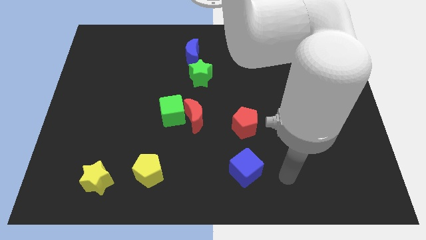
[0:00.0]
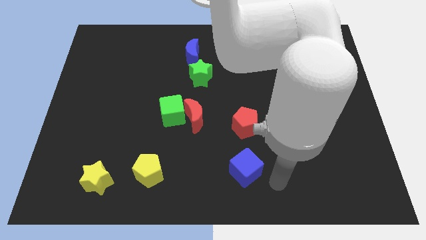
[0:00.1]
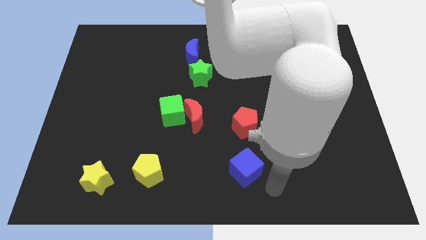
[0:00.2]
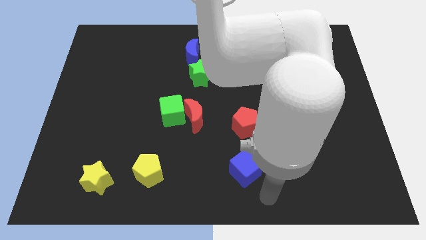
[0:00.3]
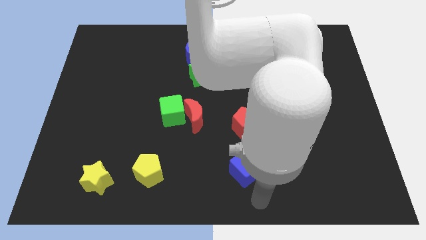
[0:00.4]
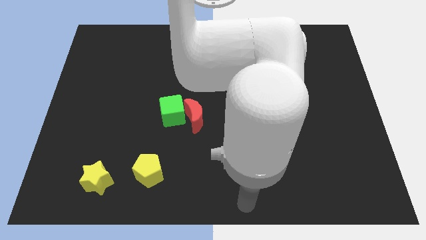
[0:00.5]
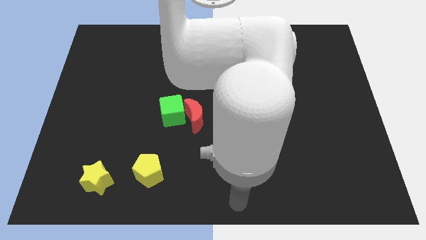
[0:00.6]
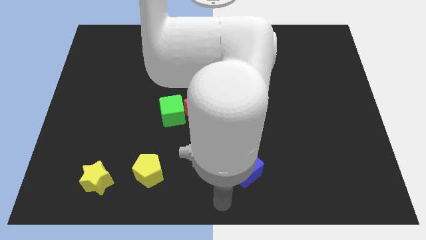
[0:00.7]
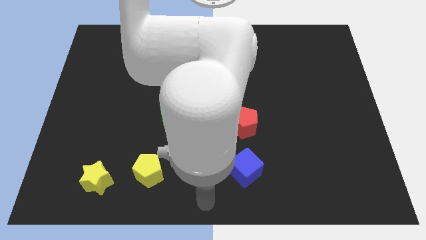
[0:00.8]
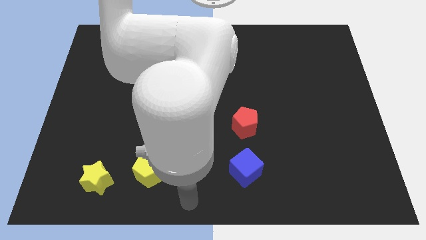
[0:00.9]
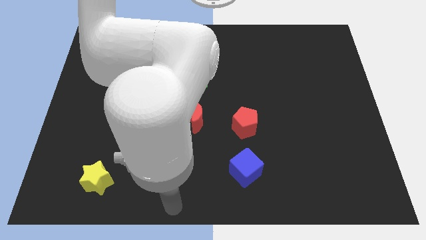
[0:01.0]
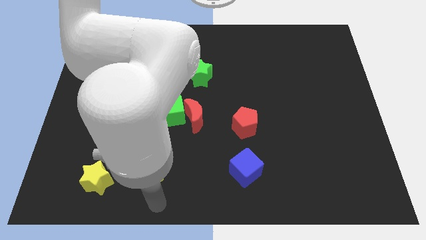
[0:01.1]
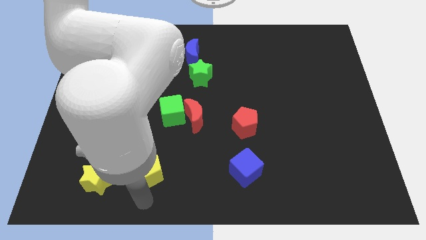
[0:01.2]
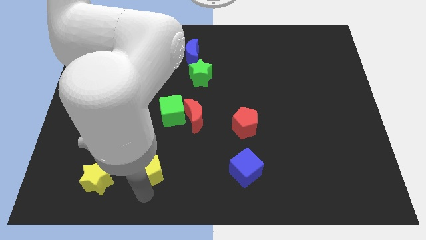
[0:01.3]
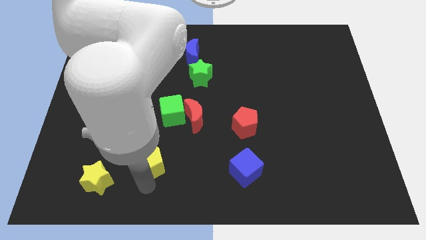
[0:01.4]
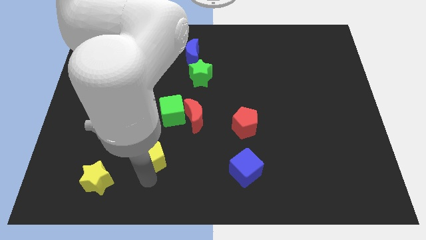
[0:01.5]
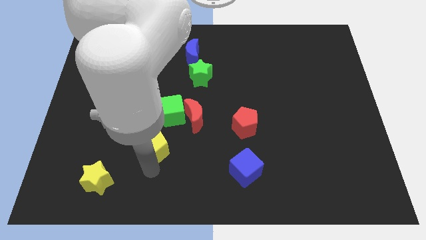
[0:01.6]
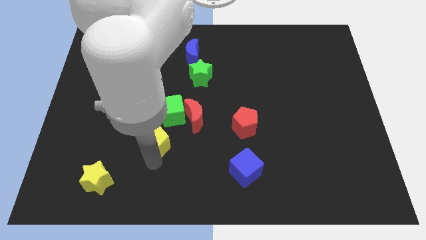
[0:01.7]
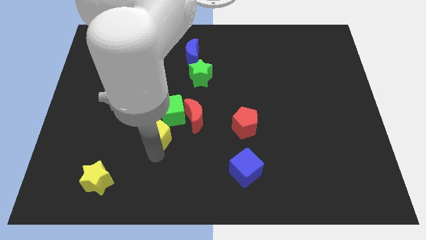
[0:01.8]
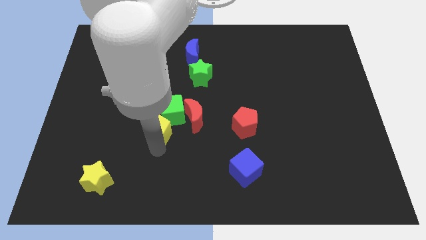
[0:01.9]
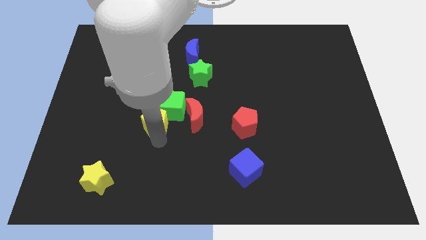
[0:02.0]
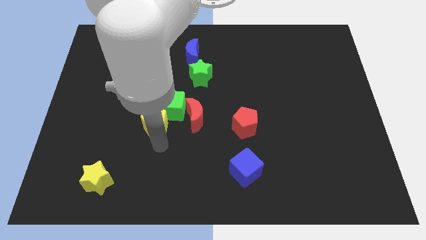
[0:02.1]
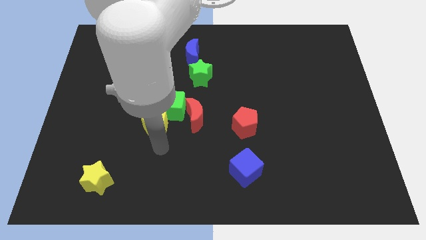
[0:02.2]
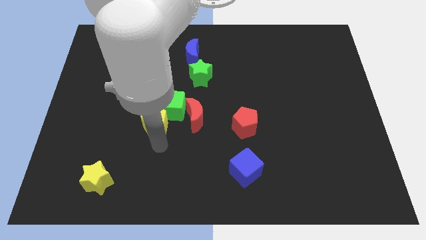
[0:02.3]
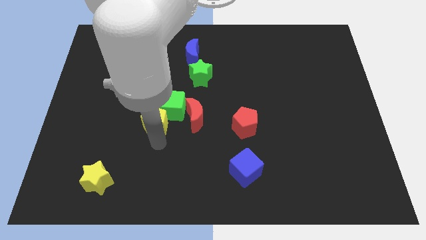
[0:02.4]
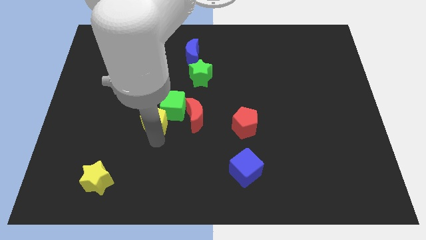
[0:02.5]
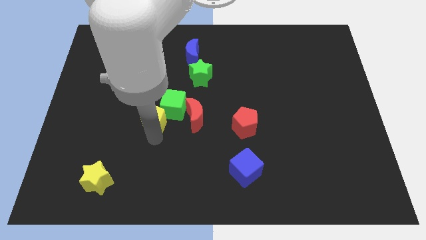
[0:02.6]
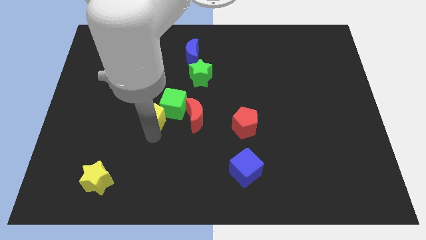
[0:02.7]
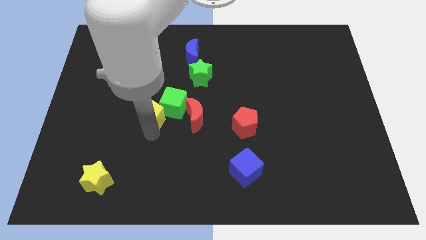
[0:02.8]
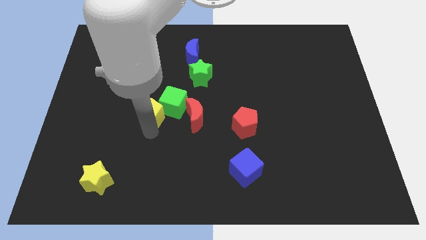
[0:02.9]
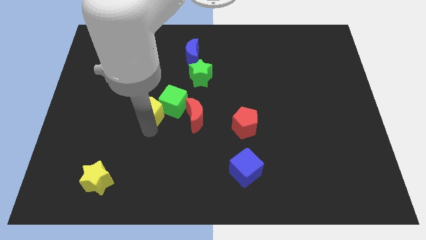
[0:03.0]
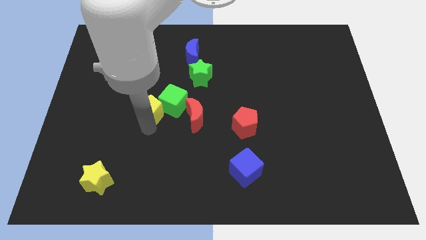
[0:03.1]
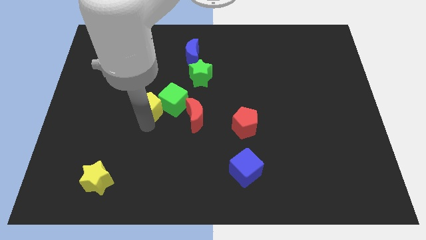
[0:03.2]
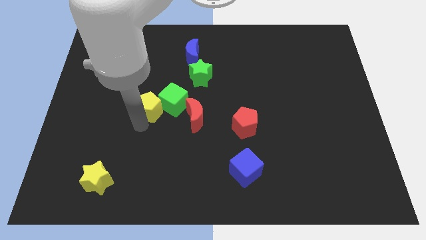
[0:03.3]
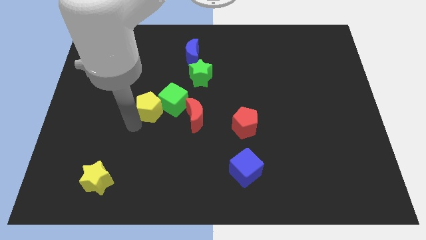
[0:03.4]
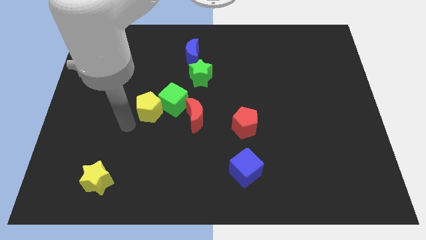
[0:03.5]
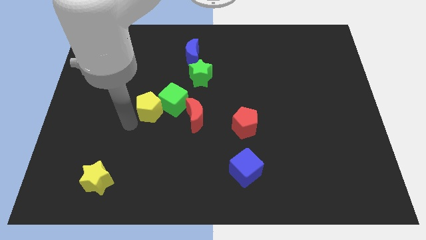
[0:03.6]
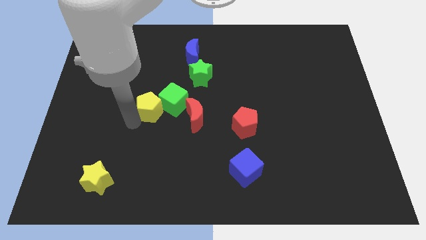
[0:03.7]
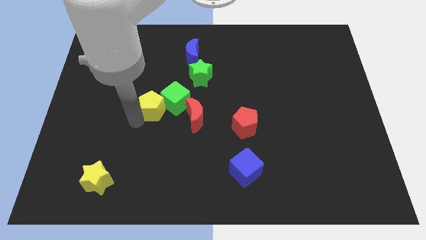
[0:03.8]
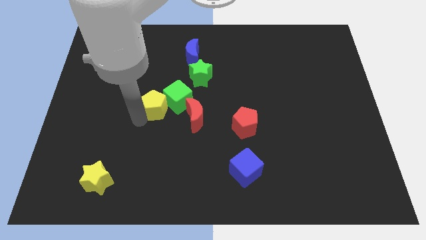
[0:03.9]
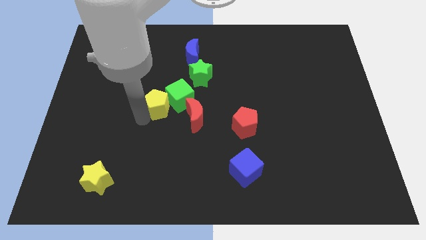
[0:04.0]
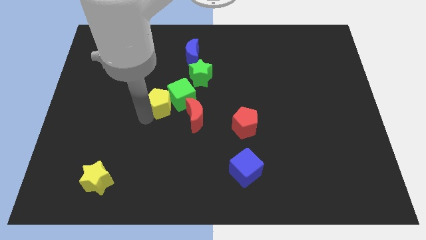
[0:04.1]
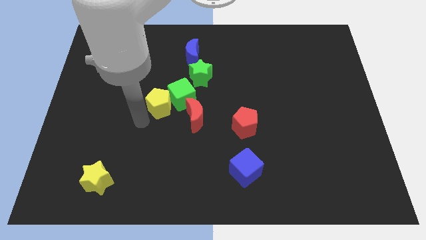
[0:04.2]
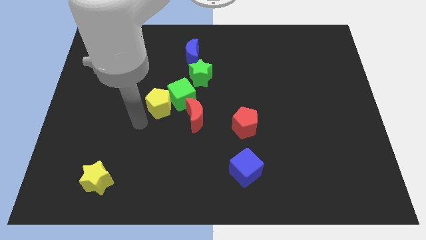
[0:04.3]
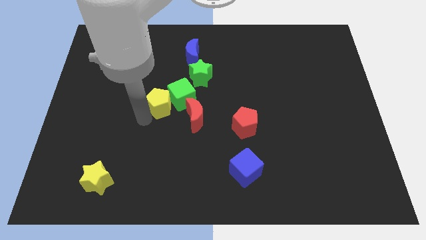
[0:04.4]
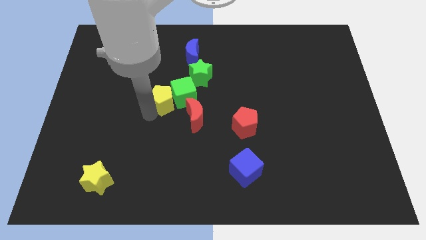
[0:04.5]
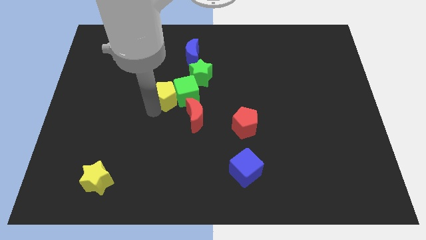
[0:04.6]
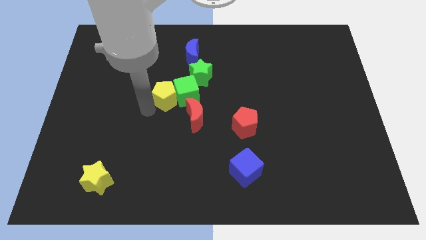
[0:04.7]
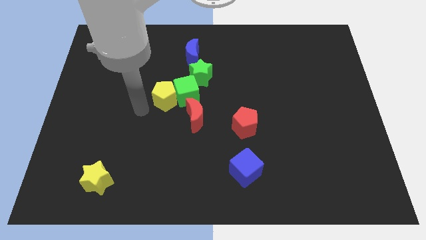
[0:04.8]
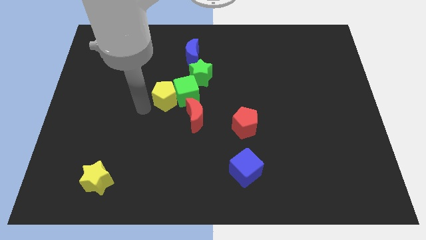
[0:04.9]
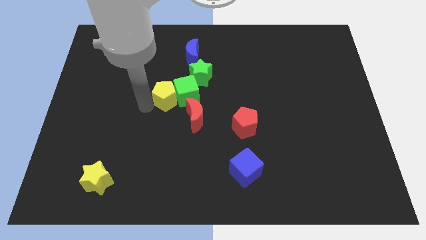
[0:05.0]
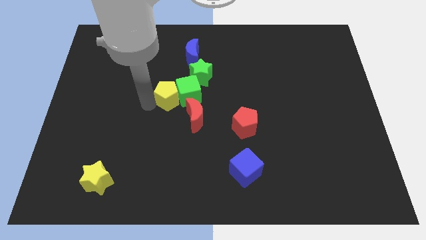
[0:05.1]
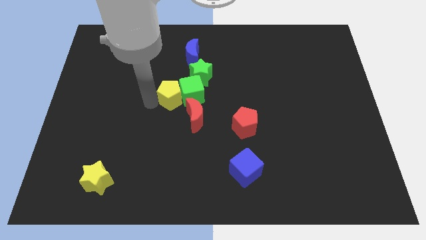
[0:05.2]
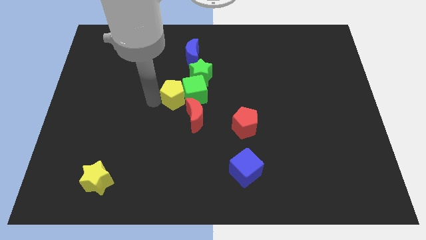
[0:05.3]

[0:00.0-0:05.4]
push the yellow pentagon to the bottom side of the blue moon

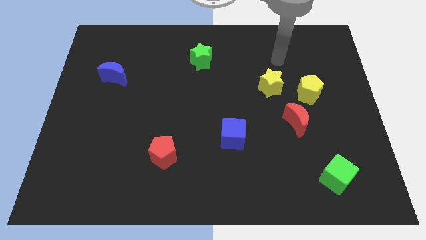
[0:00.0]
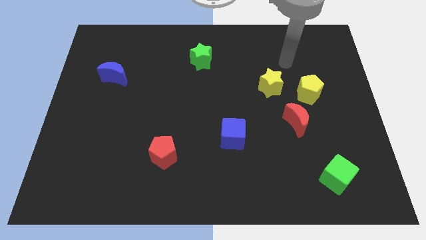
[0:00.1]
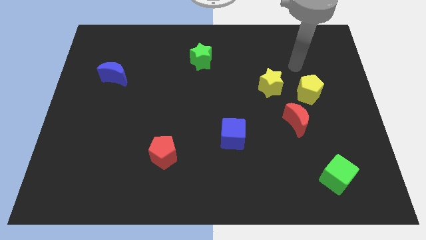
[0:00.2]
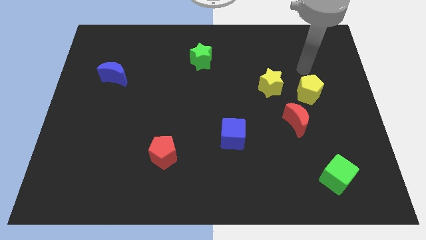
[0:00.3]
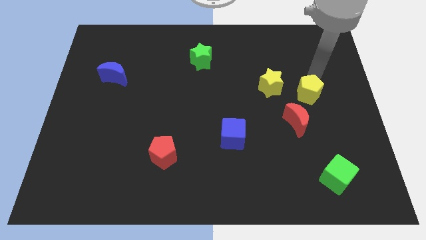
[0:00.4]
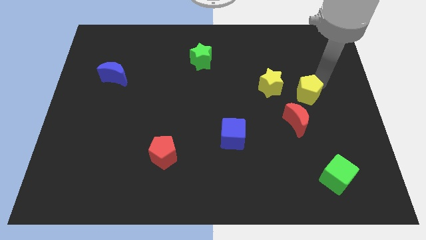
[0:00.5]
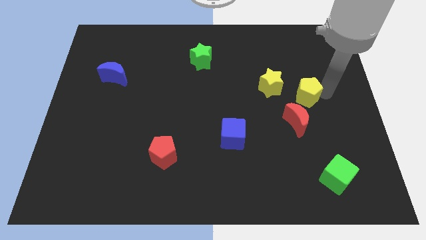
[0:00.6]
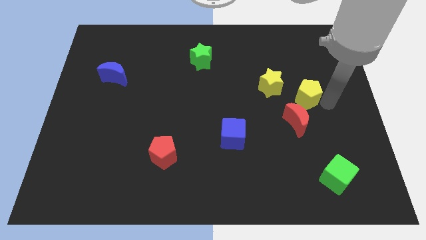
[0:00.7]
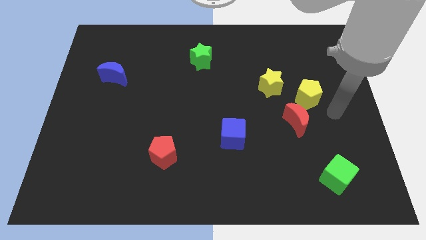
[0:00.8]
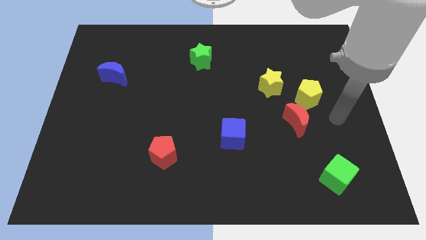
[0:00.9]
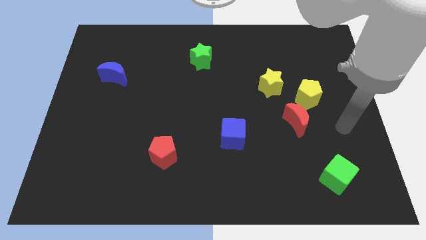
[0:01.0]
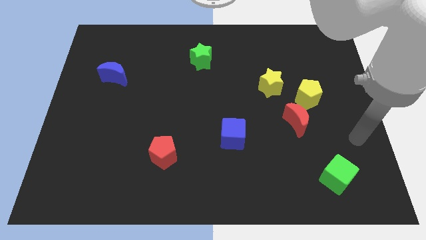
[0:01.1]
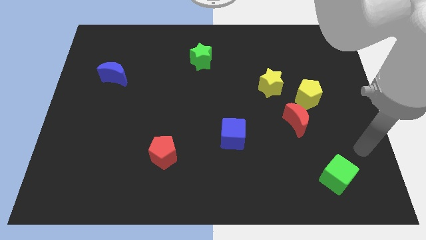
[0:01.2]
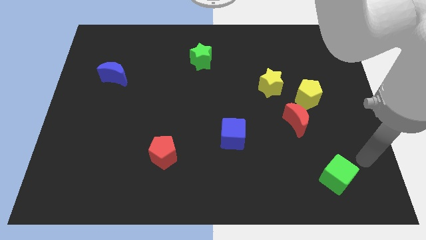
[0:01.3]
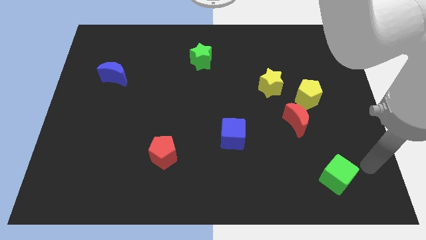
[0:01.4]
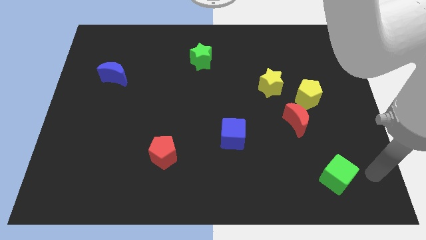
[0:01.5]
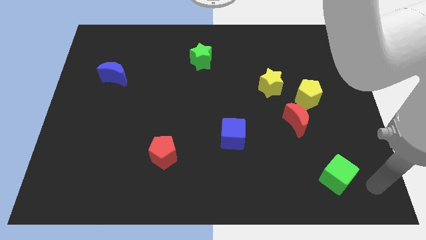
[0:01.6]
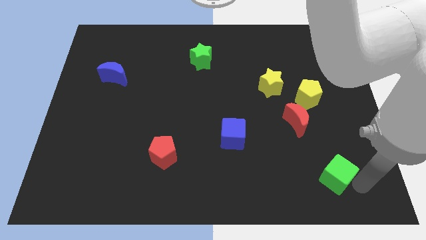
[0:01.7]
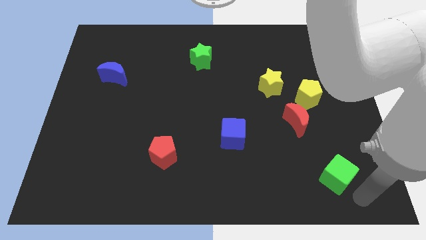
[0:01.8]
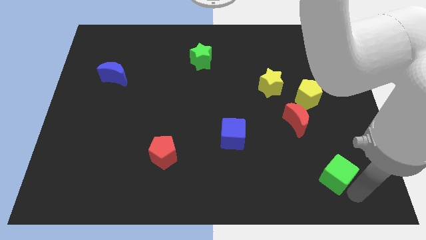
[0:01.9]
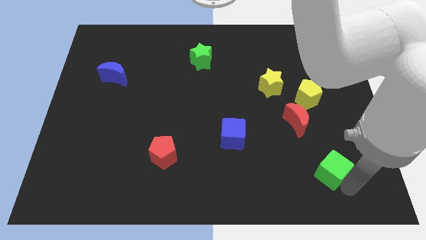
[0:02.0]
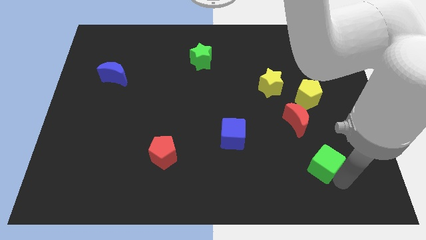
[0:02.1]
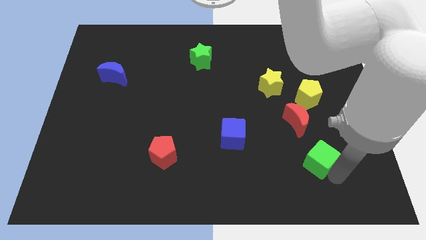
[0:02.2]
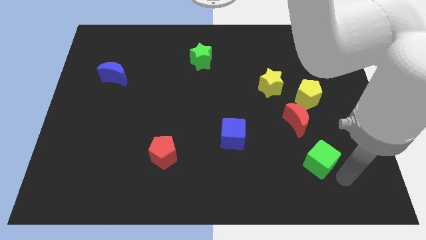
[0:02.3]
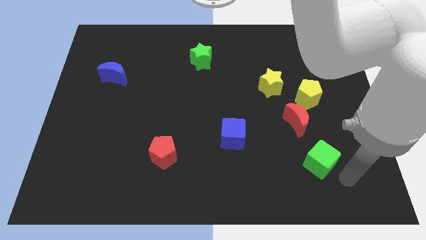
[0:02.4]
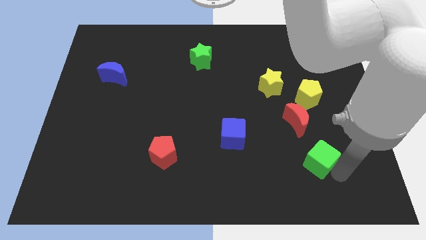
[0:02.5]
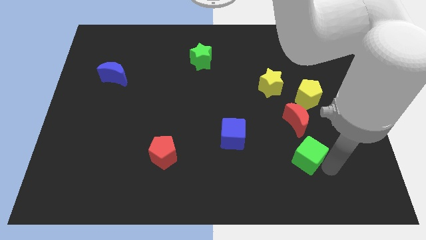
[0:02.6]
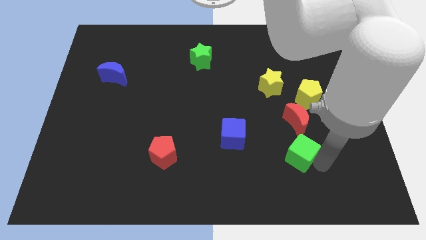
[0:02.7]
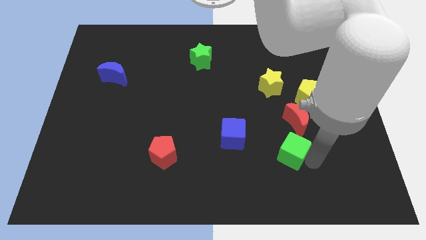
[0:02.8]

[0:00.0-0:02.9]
push the green cube right of the blue cube
